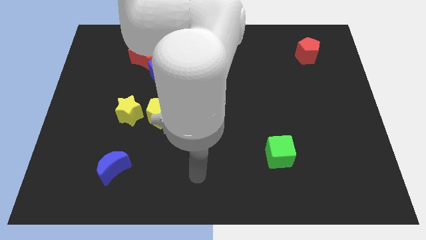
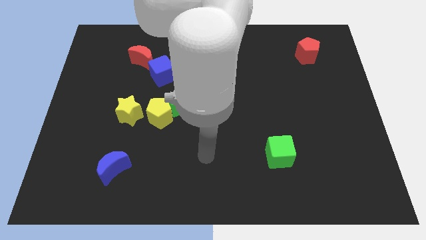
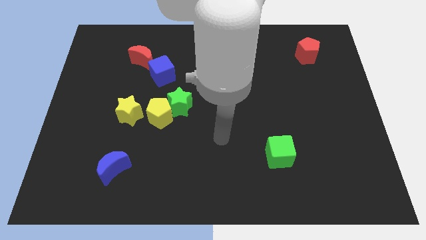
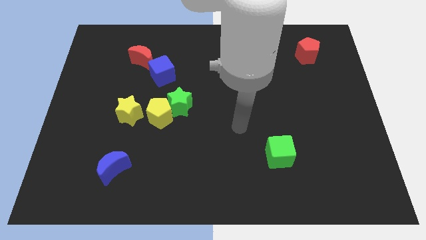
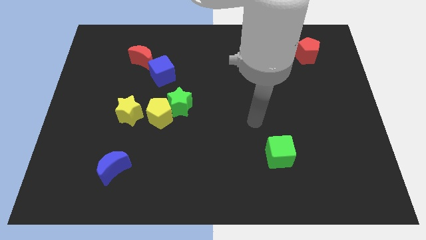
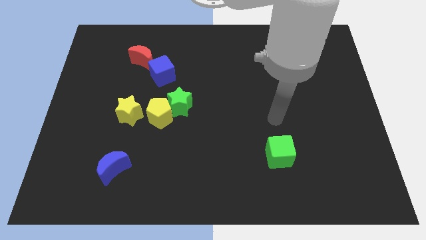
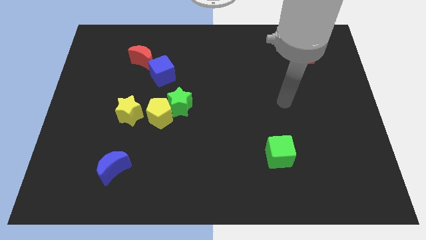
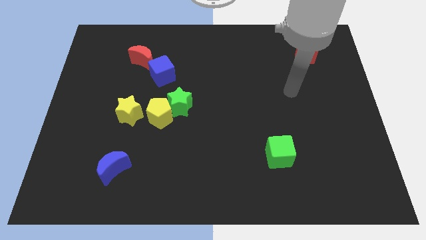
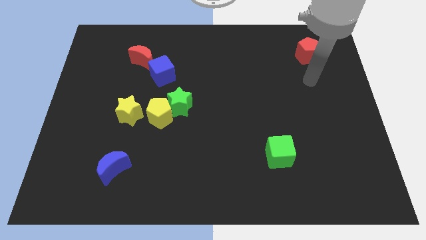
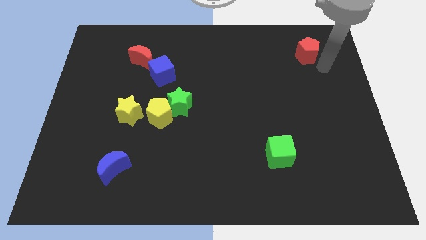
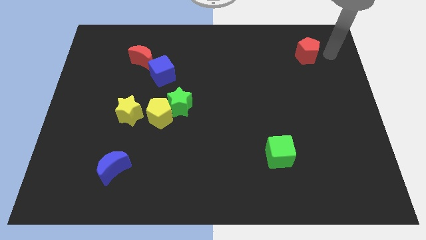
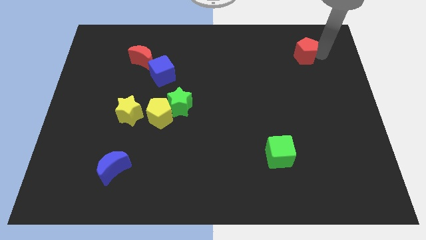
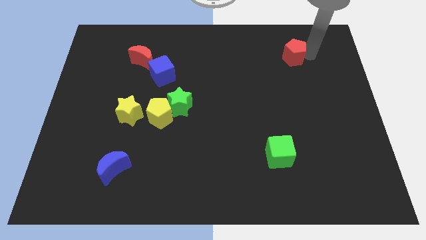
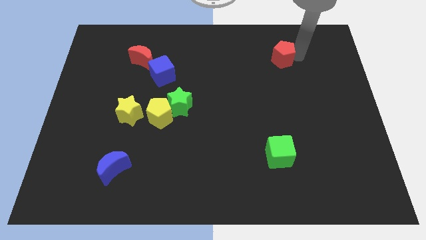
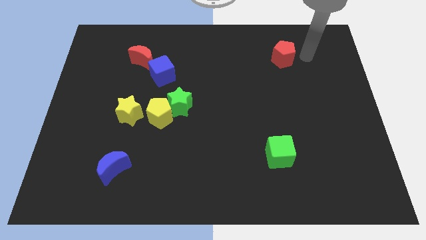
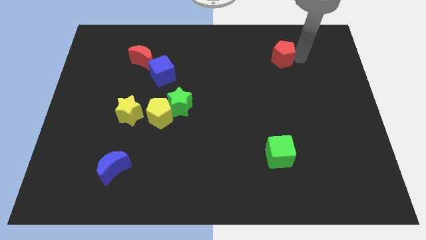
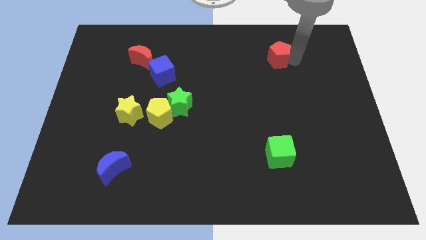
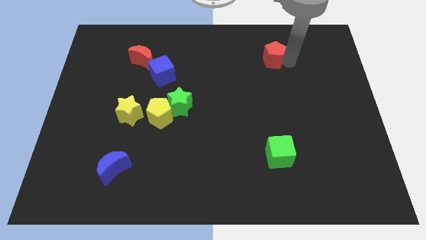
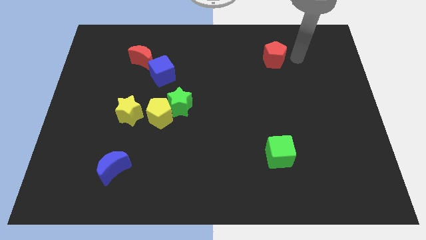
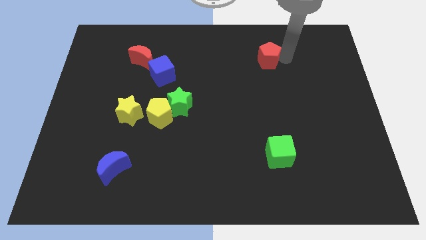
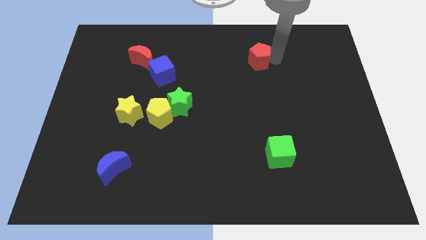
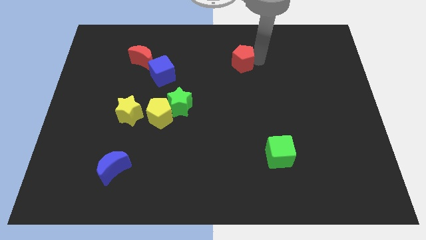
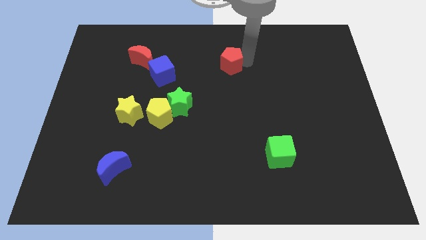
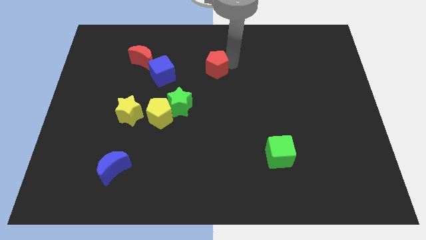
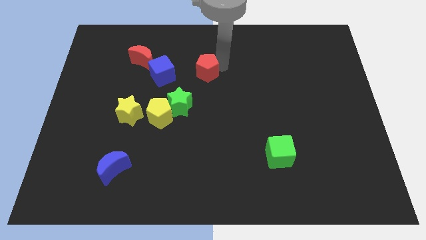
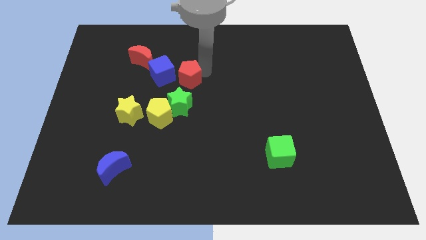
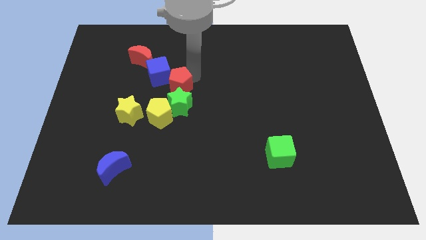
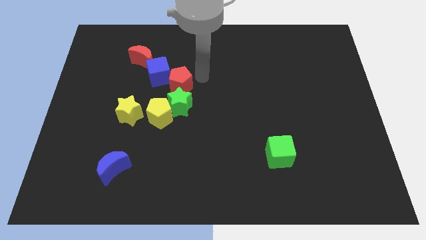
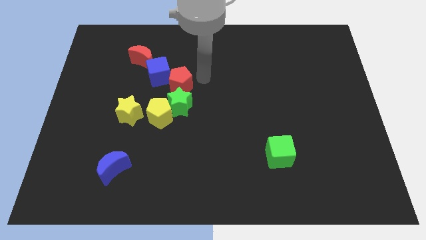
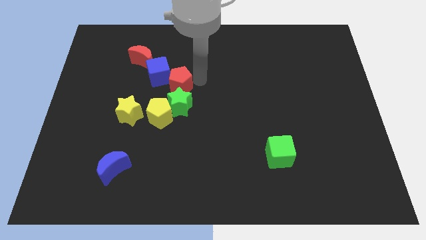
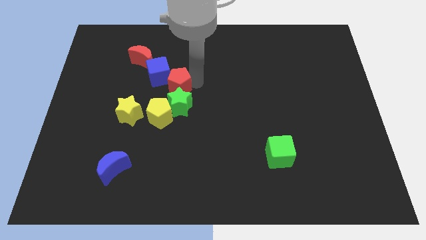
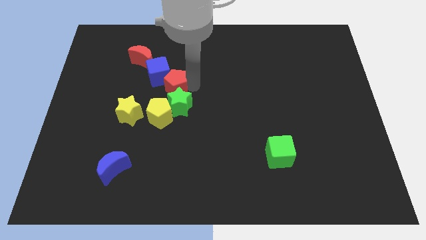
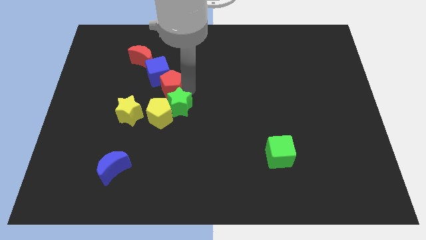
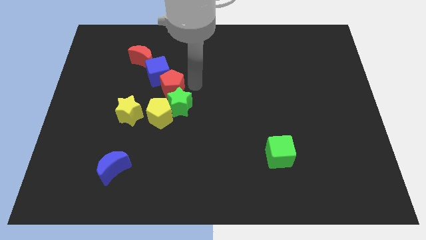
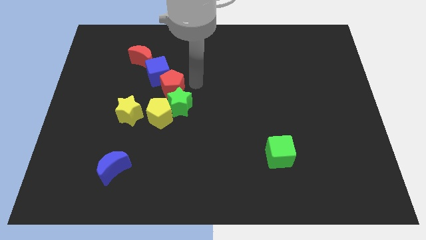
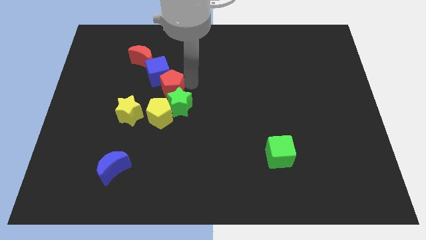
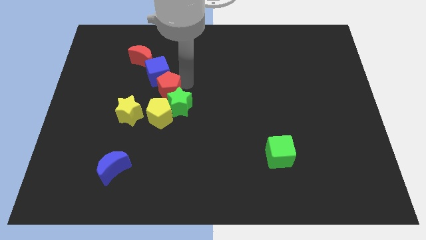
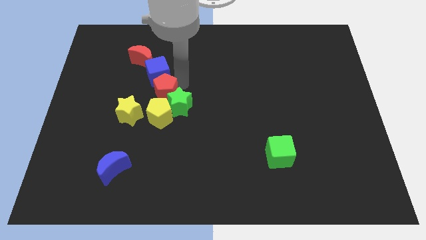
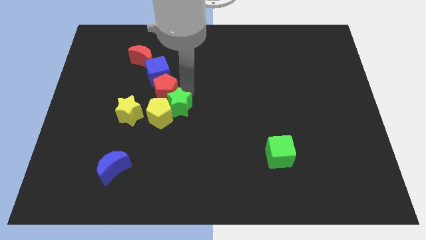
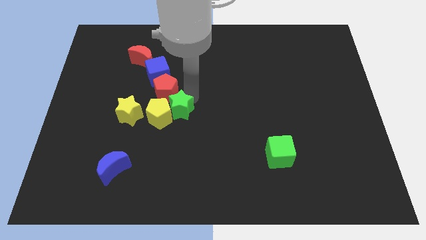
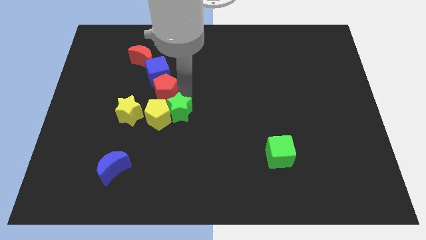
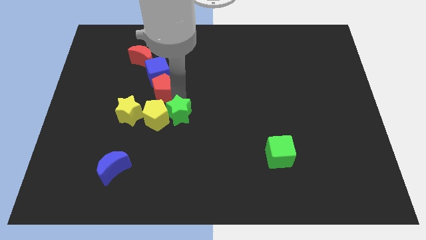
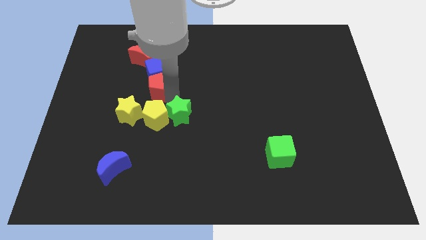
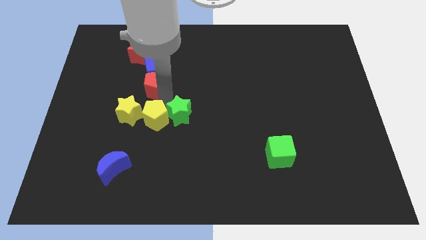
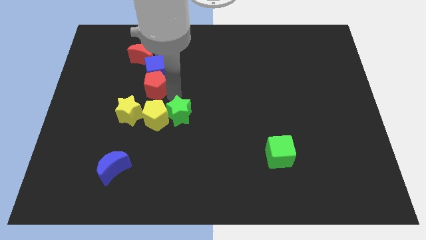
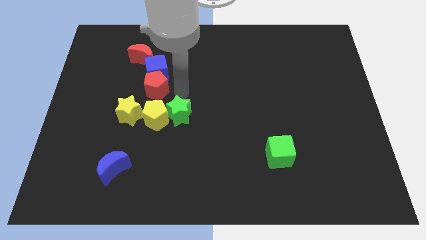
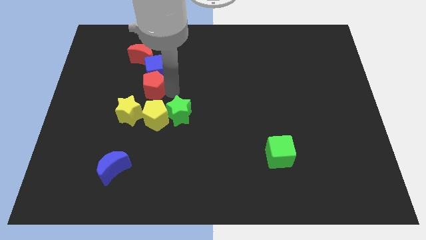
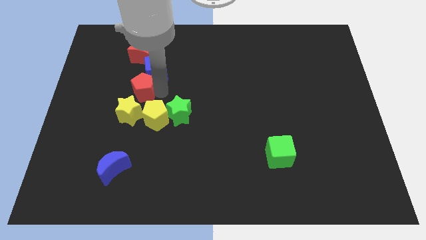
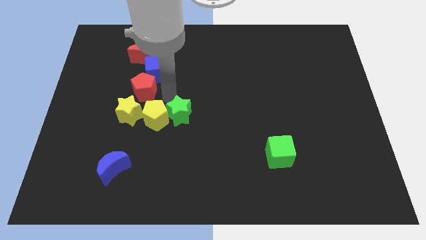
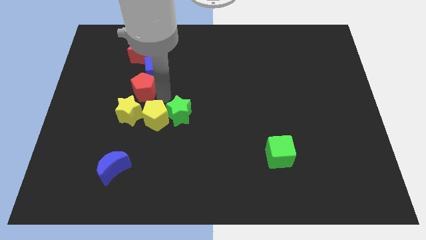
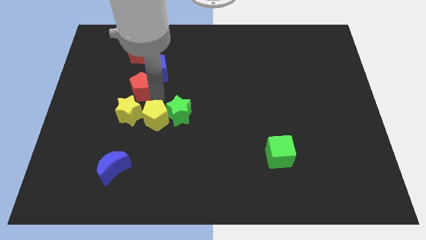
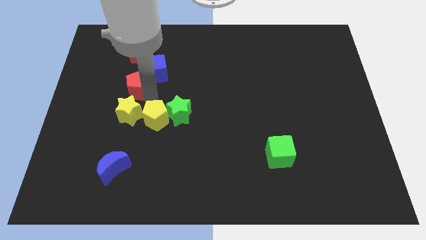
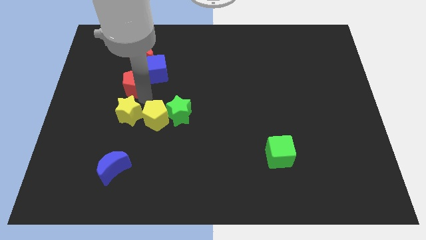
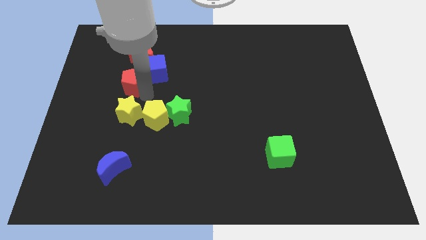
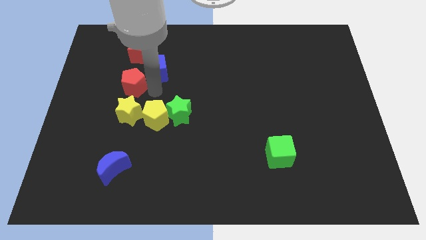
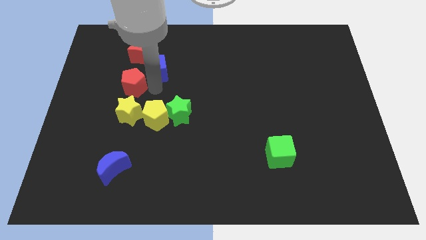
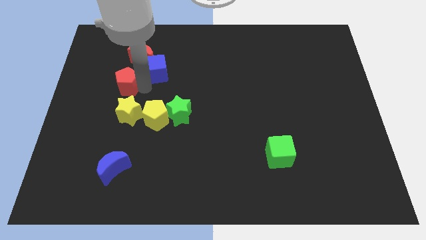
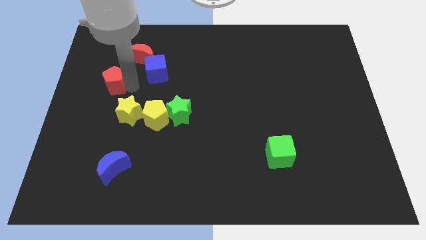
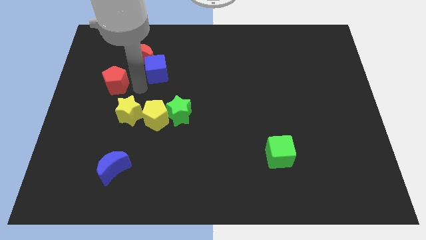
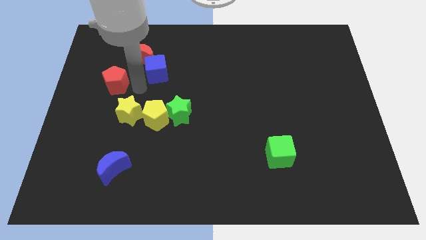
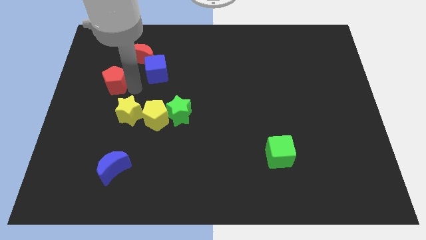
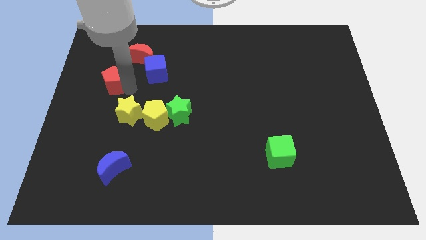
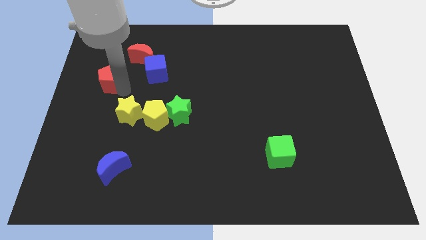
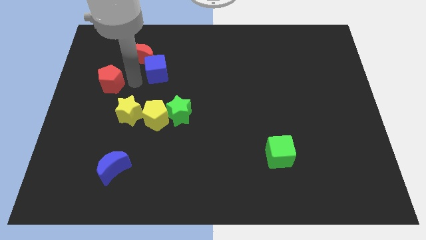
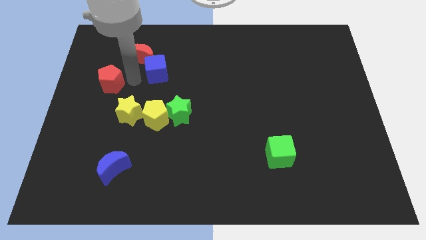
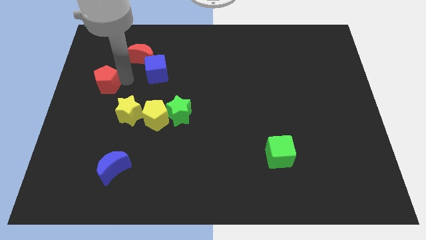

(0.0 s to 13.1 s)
move the red pentagon to the center left
